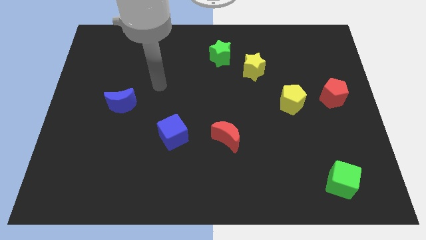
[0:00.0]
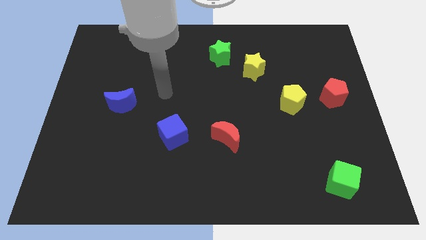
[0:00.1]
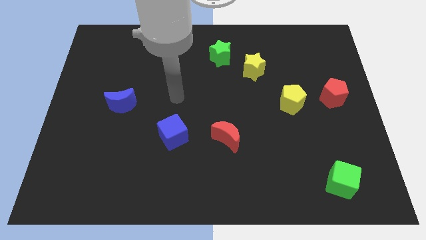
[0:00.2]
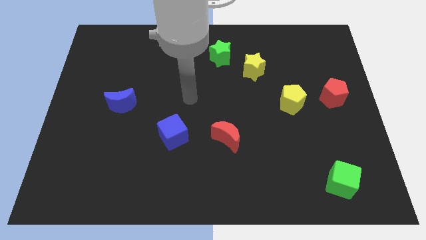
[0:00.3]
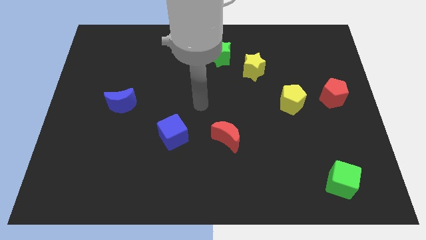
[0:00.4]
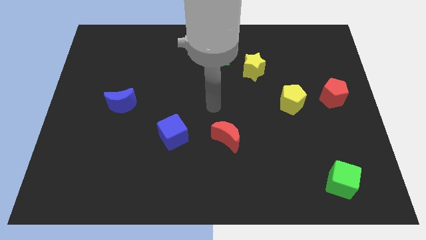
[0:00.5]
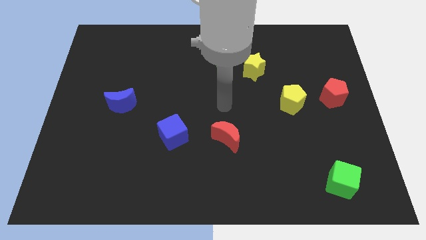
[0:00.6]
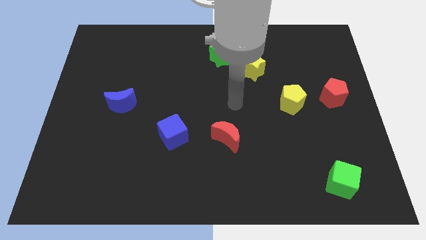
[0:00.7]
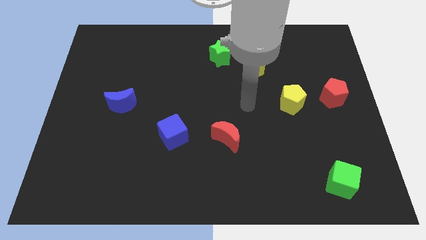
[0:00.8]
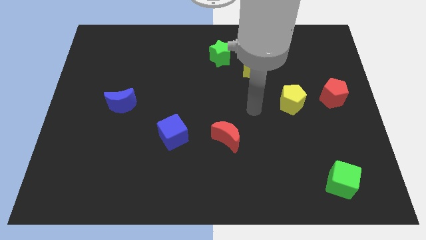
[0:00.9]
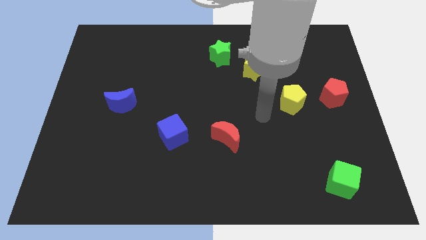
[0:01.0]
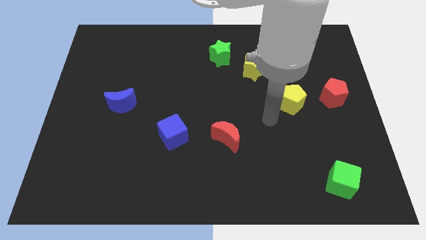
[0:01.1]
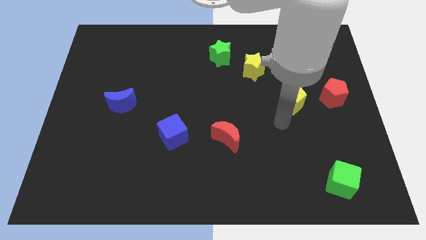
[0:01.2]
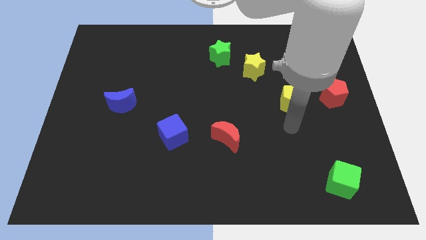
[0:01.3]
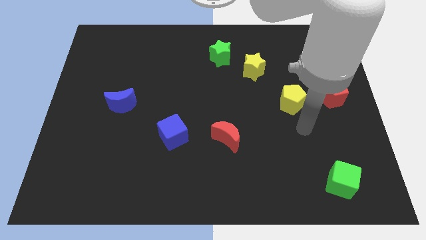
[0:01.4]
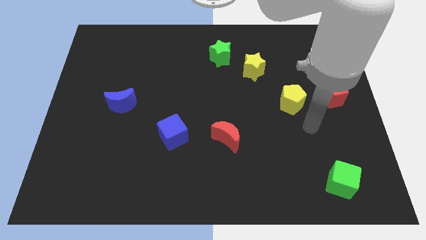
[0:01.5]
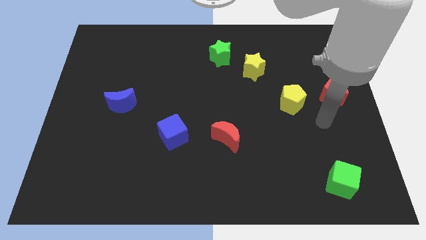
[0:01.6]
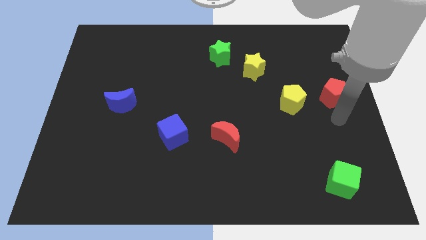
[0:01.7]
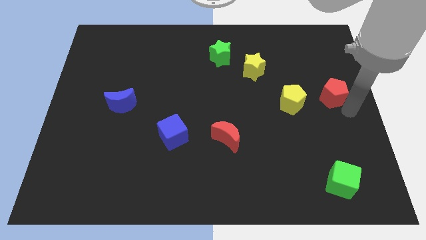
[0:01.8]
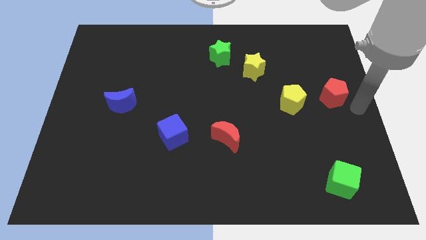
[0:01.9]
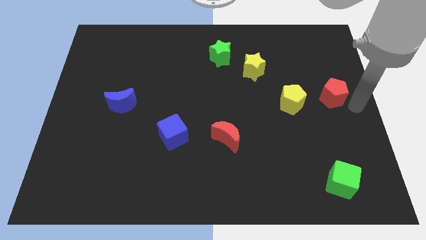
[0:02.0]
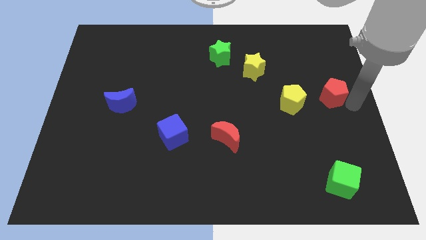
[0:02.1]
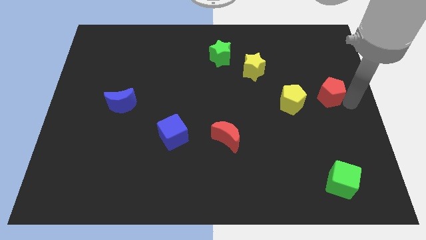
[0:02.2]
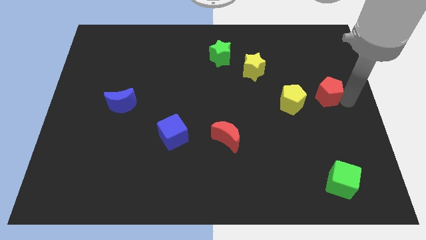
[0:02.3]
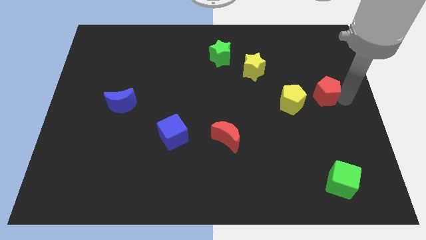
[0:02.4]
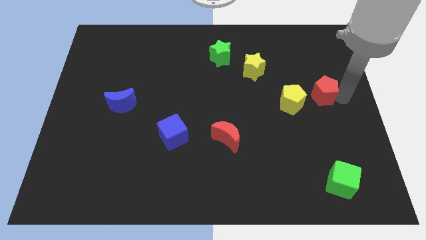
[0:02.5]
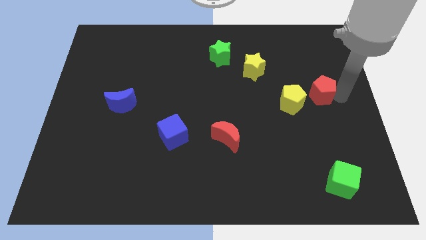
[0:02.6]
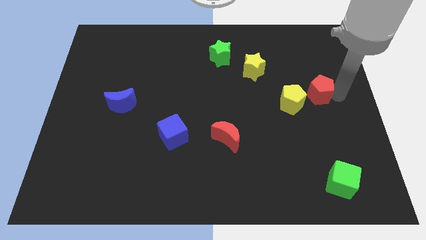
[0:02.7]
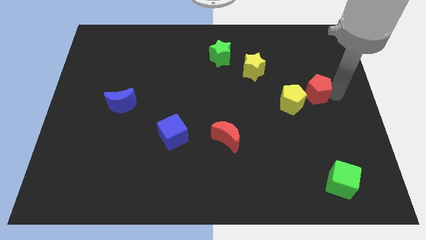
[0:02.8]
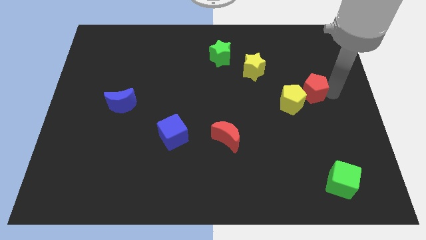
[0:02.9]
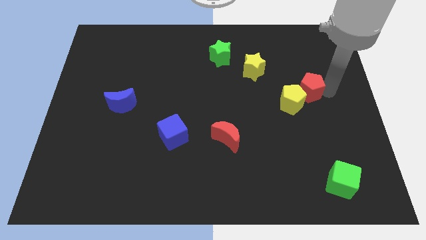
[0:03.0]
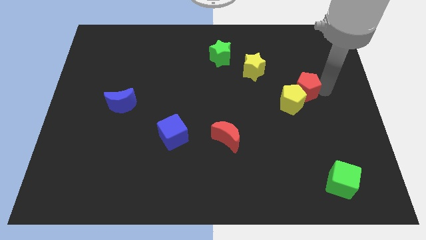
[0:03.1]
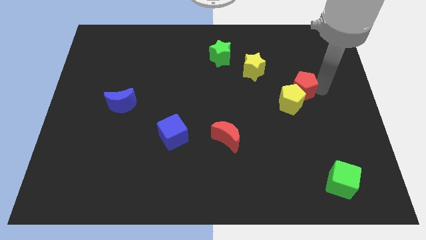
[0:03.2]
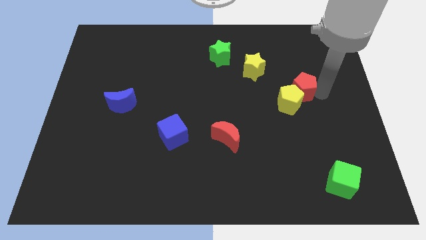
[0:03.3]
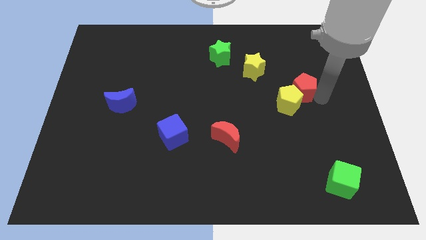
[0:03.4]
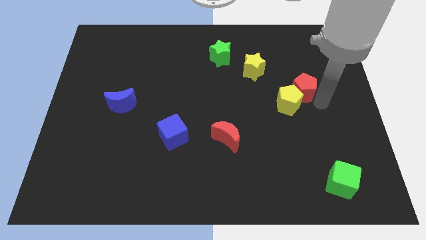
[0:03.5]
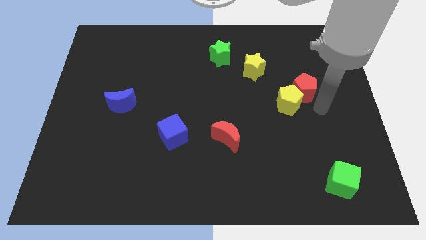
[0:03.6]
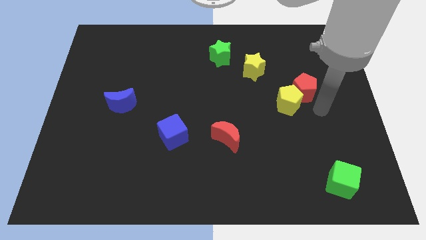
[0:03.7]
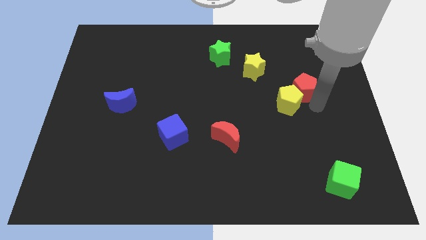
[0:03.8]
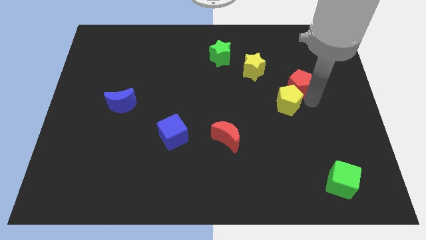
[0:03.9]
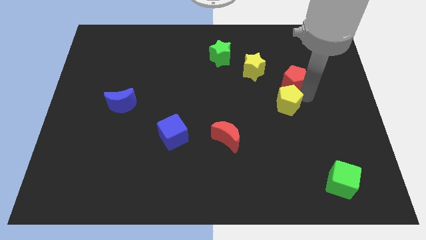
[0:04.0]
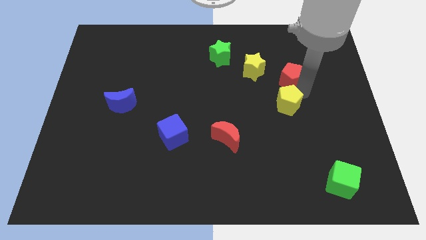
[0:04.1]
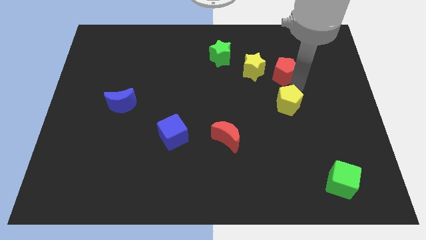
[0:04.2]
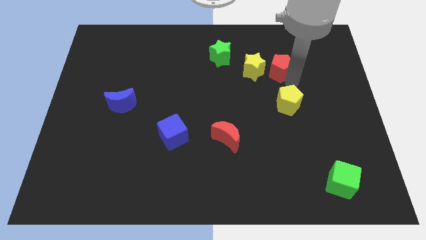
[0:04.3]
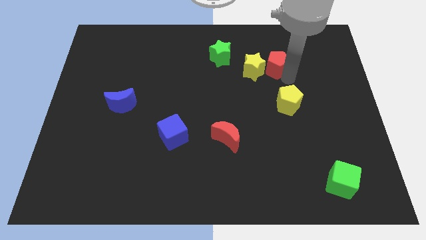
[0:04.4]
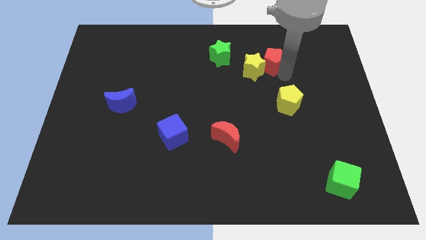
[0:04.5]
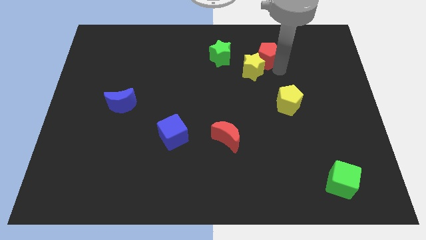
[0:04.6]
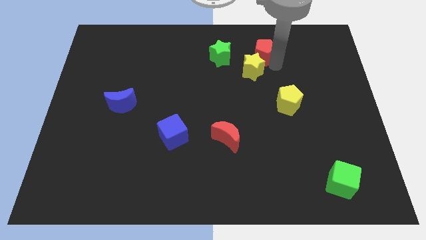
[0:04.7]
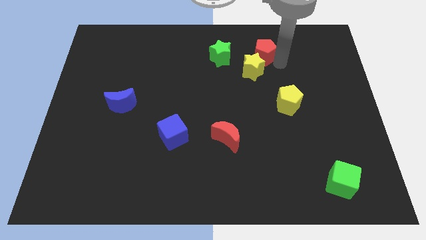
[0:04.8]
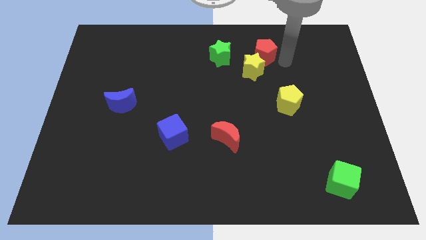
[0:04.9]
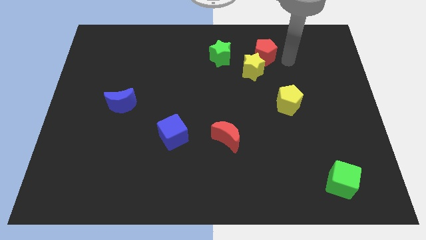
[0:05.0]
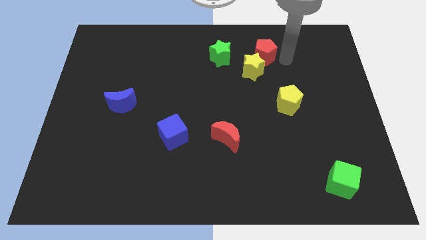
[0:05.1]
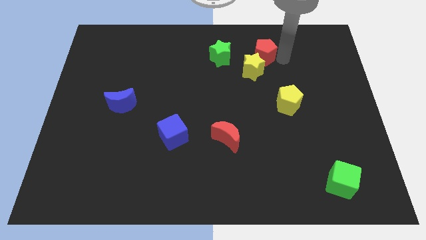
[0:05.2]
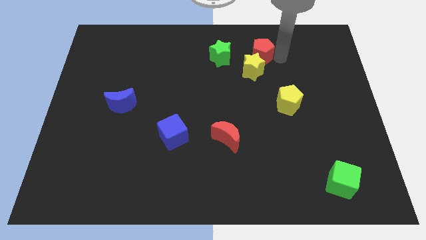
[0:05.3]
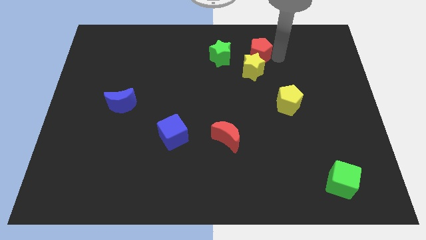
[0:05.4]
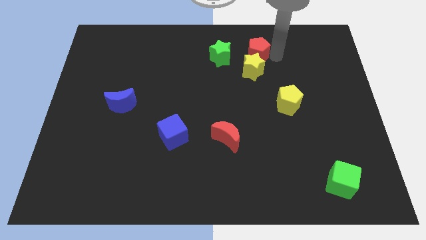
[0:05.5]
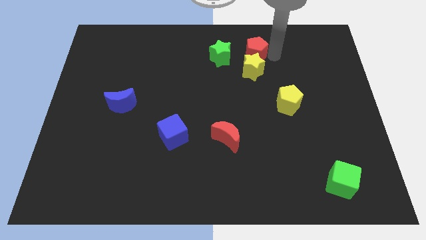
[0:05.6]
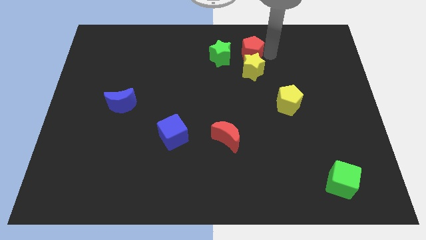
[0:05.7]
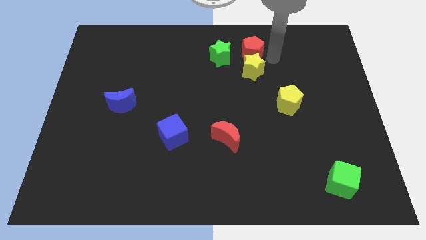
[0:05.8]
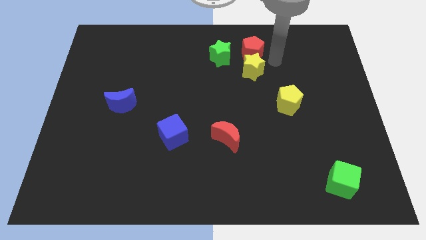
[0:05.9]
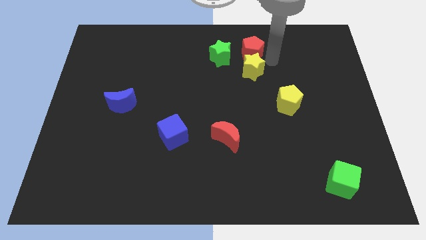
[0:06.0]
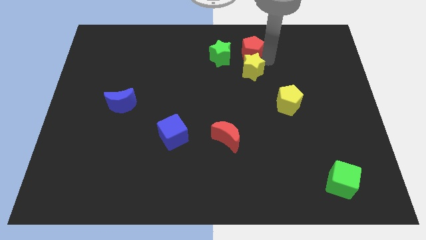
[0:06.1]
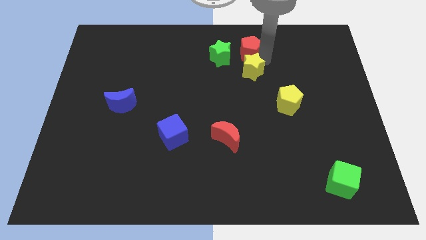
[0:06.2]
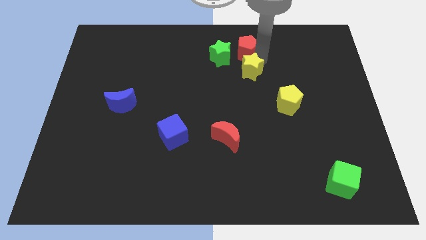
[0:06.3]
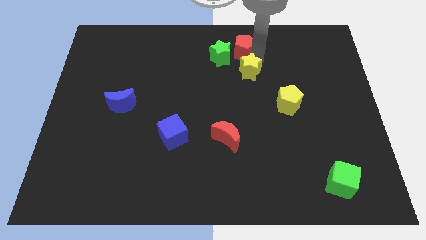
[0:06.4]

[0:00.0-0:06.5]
slide the red pentagon to the top side

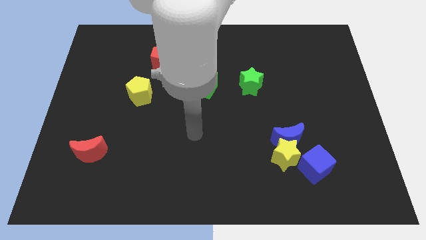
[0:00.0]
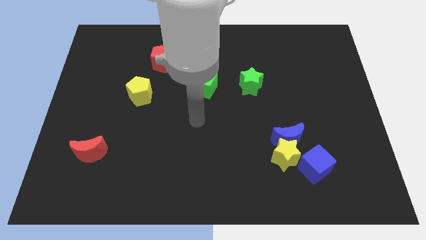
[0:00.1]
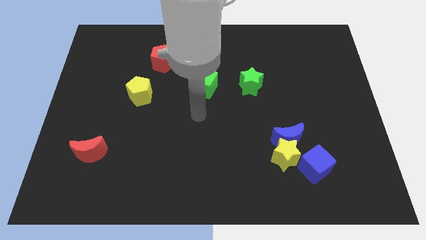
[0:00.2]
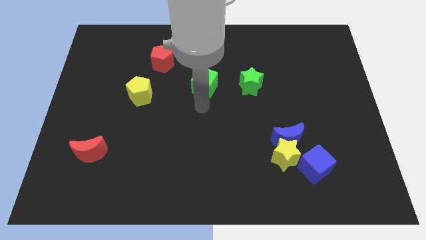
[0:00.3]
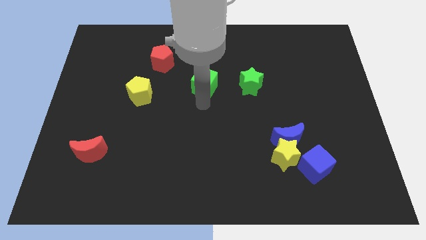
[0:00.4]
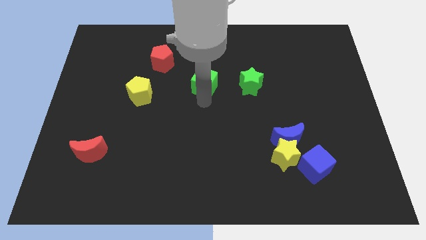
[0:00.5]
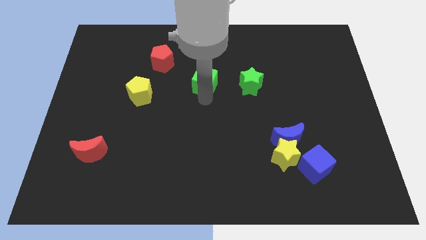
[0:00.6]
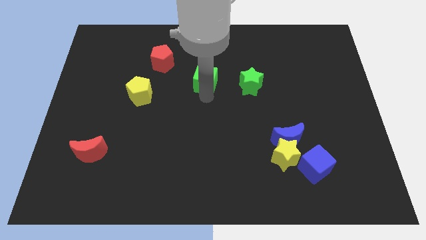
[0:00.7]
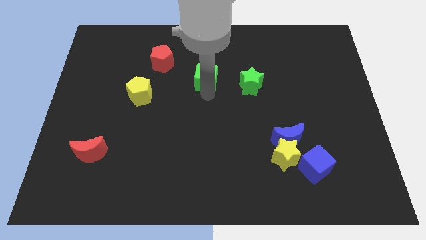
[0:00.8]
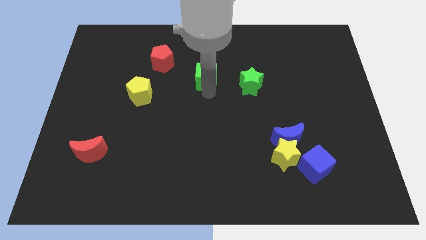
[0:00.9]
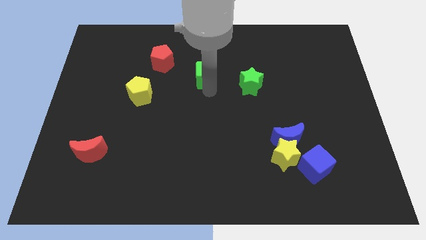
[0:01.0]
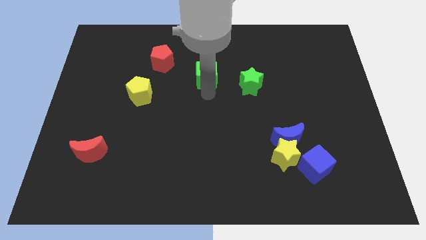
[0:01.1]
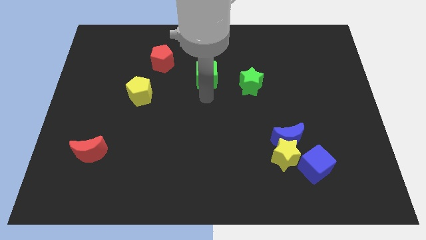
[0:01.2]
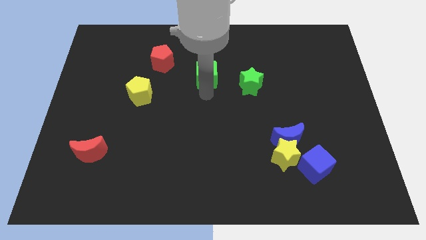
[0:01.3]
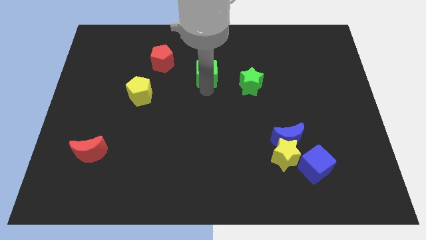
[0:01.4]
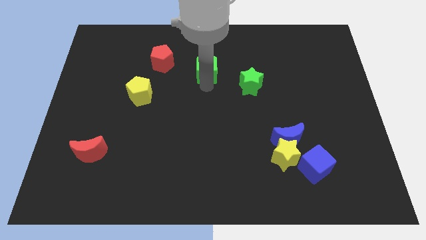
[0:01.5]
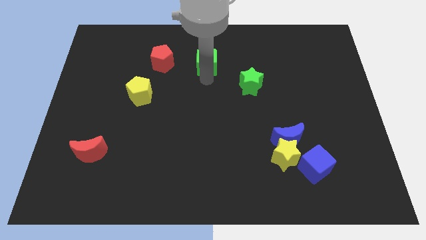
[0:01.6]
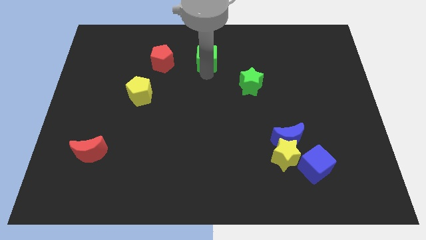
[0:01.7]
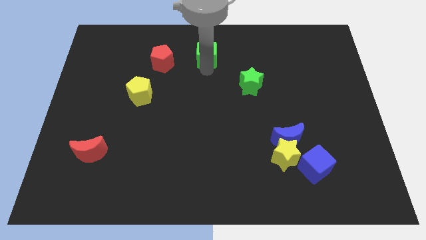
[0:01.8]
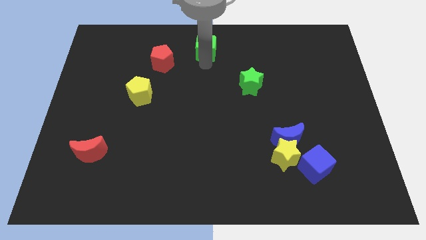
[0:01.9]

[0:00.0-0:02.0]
put the green cube to the towards your base
